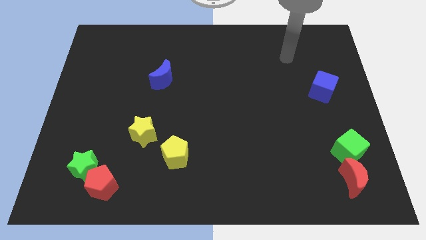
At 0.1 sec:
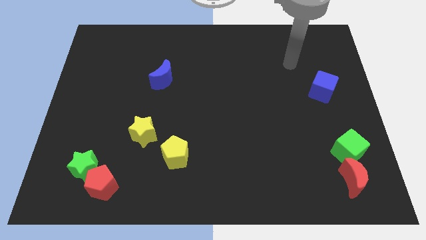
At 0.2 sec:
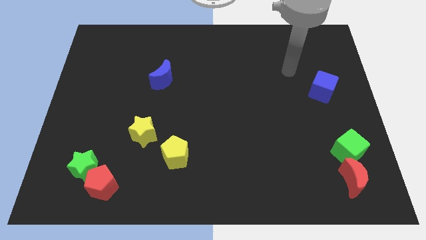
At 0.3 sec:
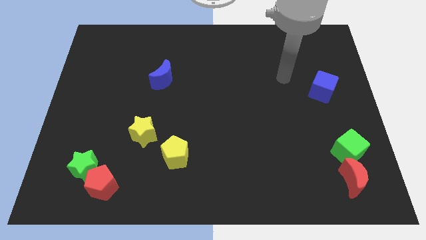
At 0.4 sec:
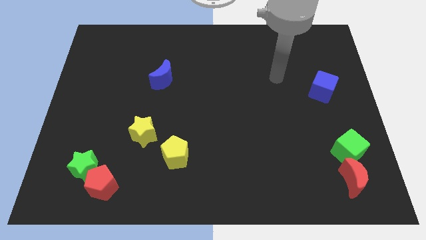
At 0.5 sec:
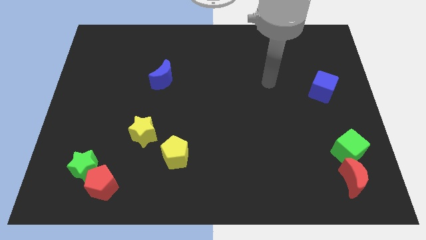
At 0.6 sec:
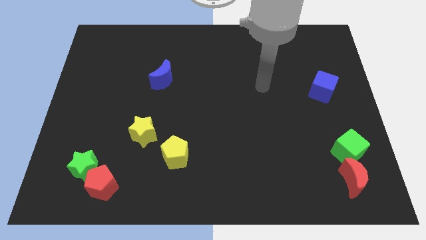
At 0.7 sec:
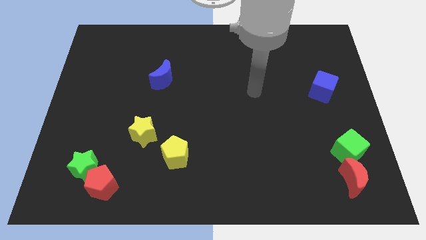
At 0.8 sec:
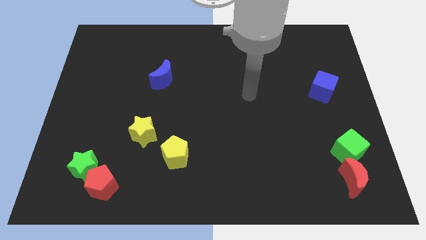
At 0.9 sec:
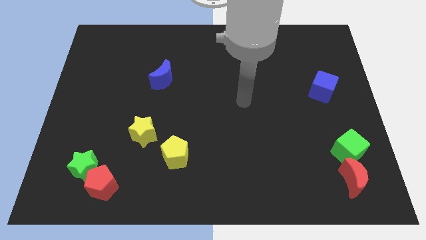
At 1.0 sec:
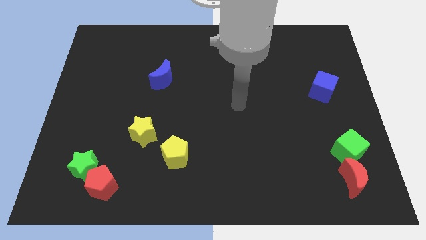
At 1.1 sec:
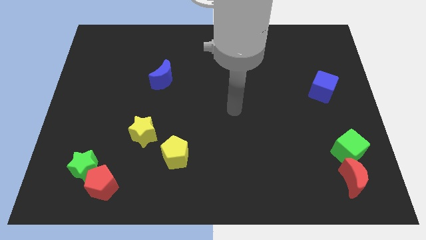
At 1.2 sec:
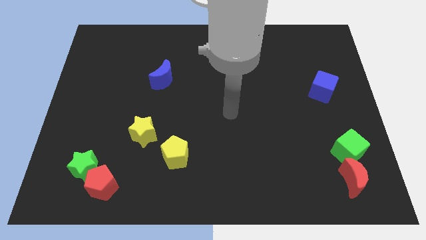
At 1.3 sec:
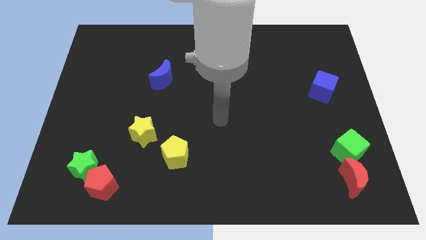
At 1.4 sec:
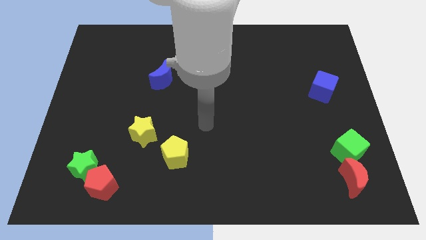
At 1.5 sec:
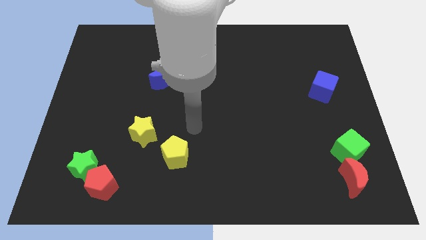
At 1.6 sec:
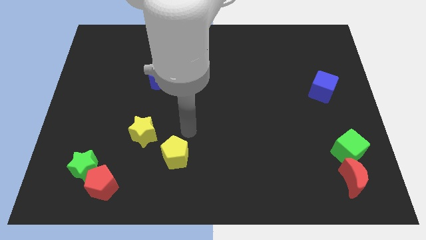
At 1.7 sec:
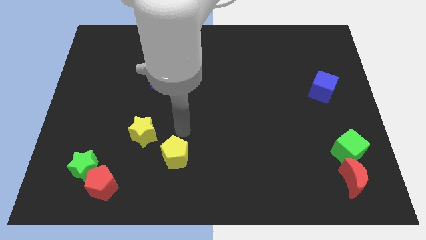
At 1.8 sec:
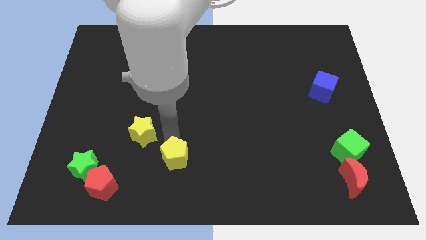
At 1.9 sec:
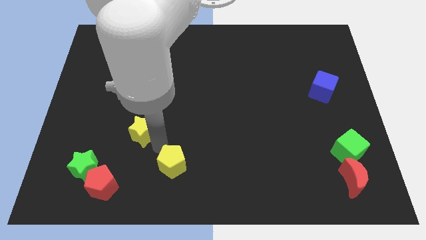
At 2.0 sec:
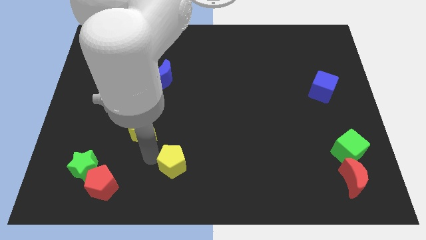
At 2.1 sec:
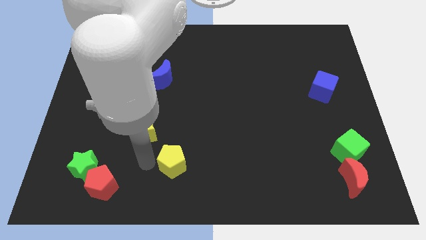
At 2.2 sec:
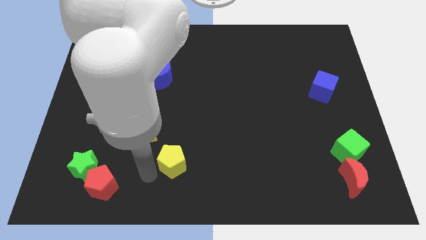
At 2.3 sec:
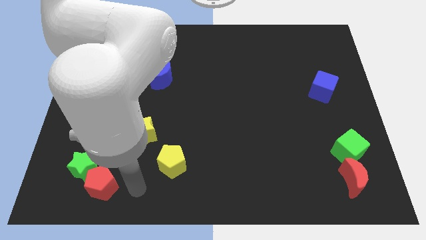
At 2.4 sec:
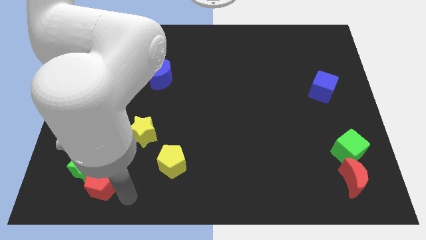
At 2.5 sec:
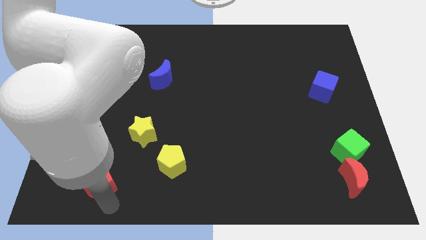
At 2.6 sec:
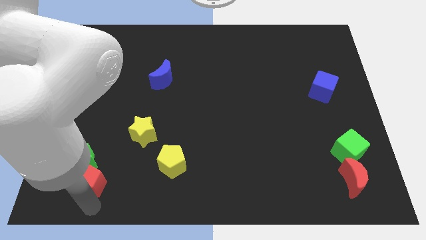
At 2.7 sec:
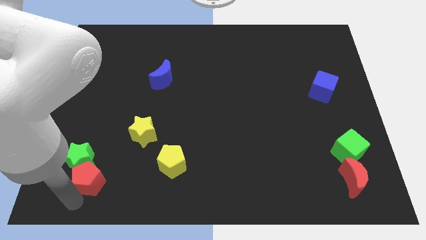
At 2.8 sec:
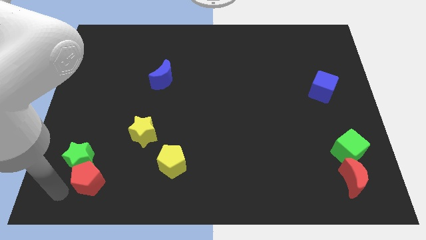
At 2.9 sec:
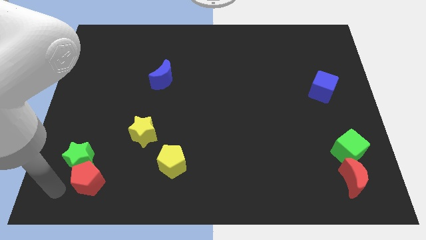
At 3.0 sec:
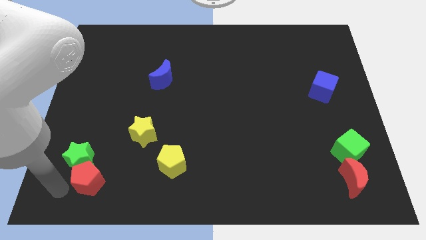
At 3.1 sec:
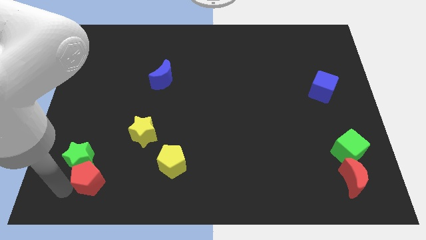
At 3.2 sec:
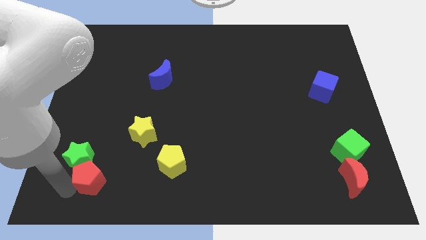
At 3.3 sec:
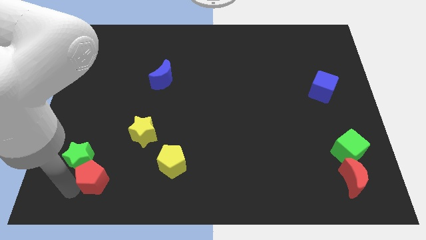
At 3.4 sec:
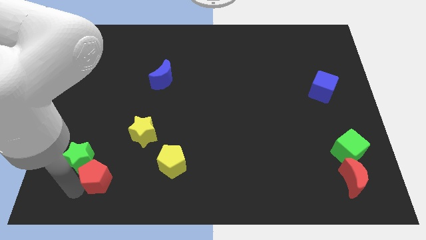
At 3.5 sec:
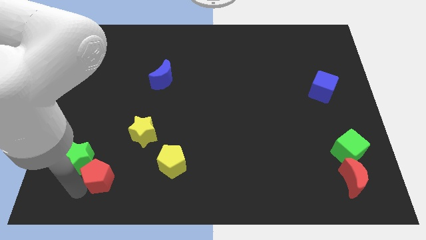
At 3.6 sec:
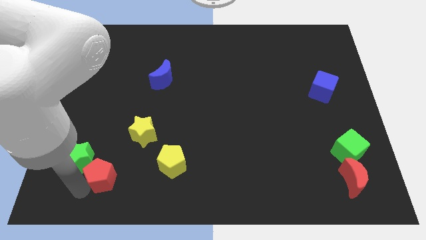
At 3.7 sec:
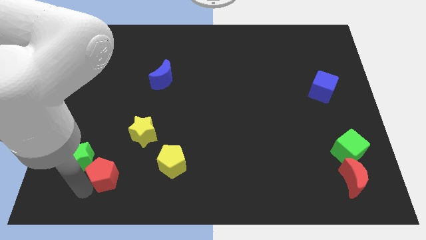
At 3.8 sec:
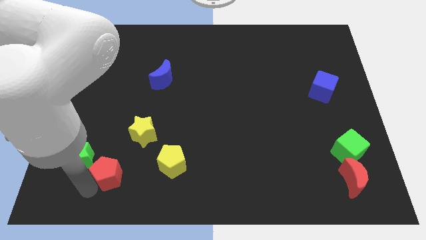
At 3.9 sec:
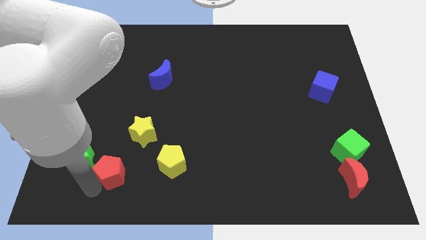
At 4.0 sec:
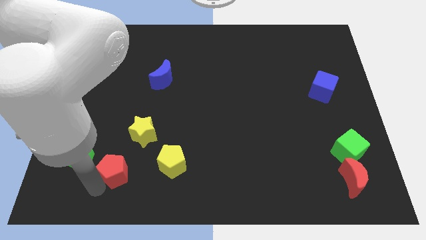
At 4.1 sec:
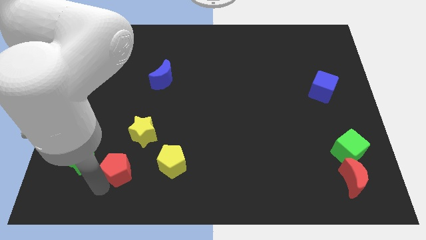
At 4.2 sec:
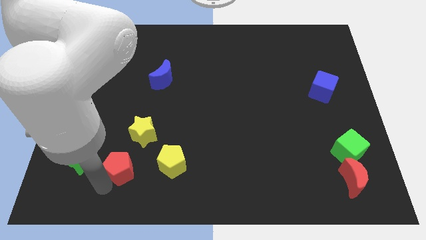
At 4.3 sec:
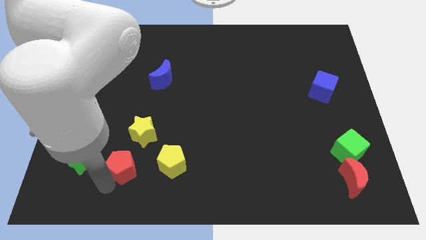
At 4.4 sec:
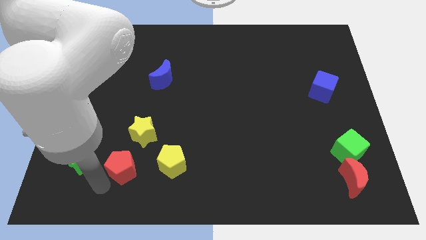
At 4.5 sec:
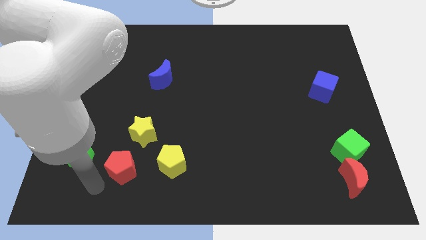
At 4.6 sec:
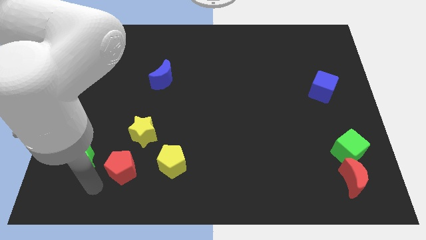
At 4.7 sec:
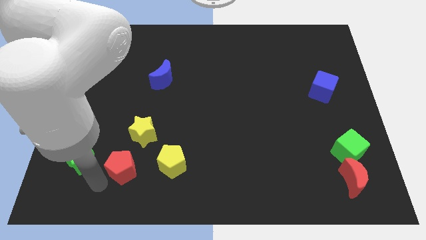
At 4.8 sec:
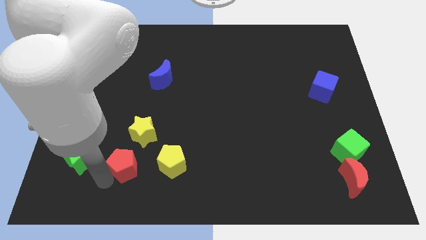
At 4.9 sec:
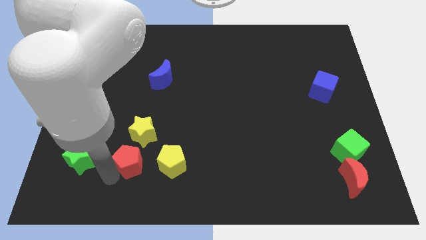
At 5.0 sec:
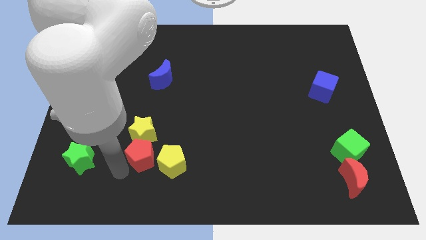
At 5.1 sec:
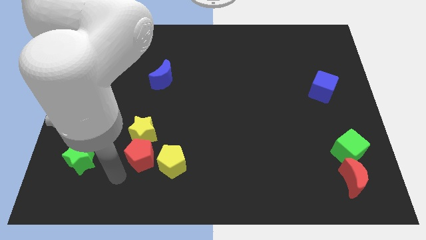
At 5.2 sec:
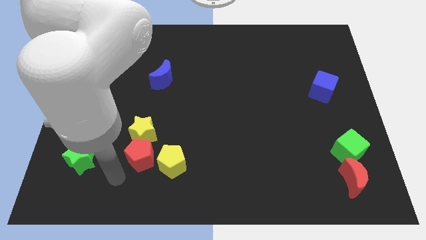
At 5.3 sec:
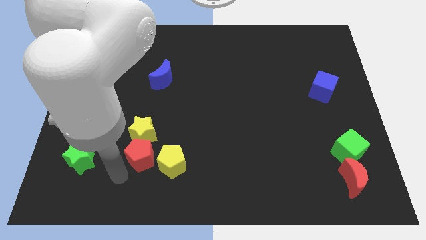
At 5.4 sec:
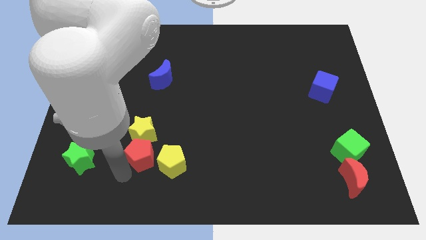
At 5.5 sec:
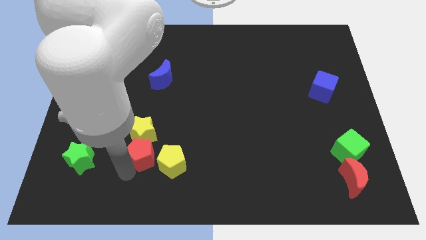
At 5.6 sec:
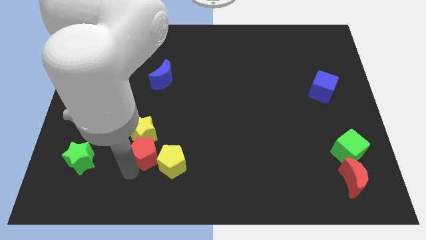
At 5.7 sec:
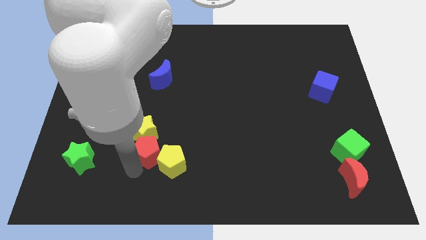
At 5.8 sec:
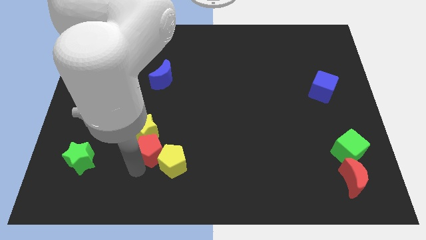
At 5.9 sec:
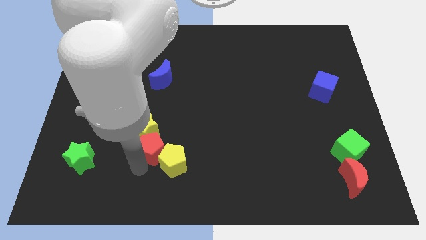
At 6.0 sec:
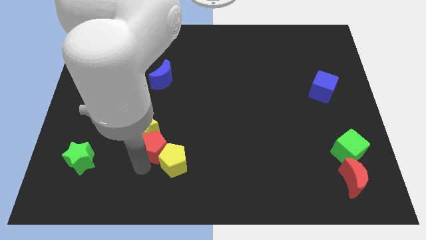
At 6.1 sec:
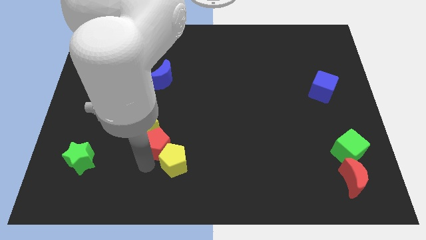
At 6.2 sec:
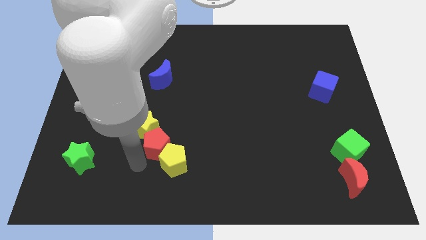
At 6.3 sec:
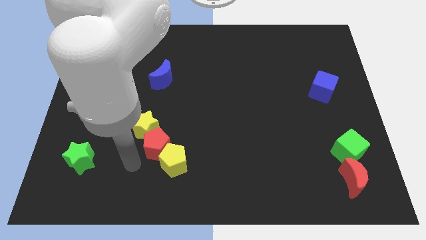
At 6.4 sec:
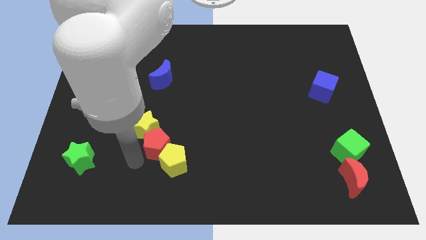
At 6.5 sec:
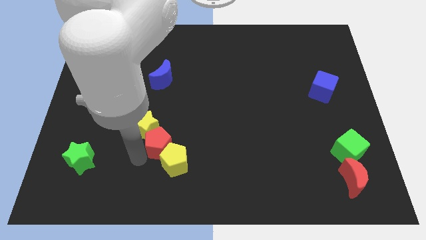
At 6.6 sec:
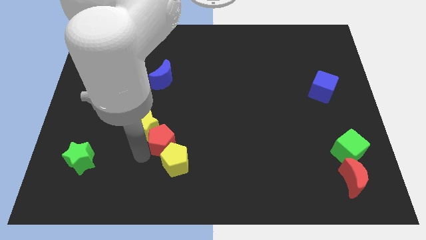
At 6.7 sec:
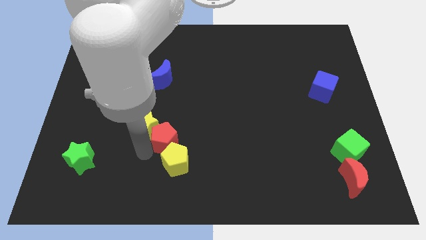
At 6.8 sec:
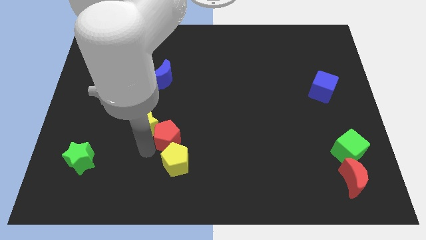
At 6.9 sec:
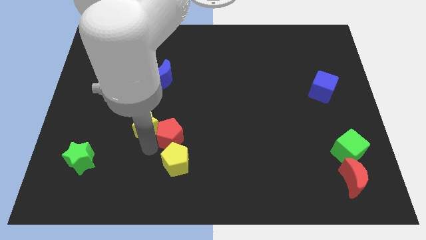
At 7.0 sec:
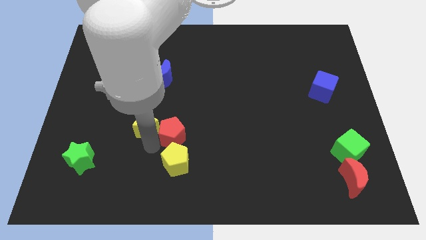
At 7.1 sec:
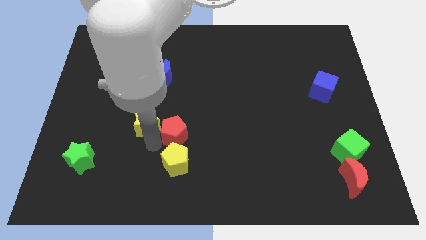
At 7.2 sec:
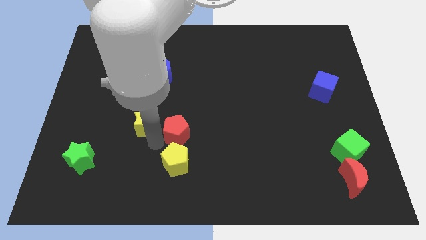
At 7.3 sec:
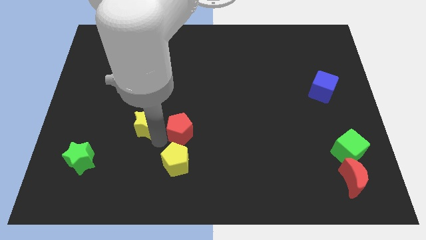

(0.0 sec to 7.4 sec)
push the red pentagon upwards and then to the right

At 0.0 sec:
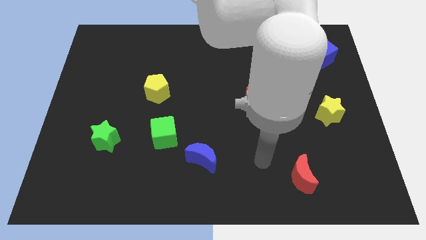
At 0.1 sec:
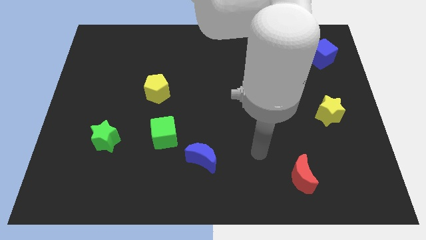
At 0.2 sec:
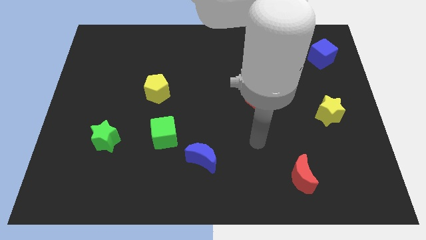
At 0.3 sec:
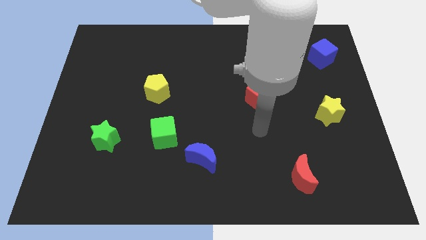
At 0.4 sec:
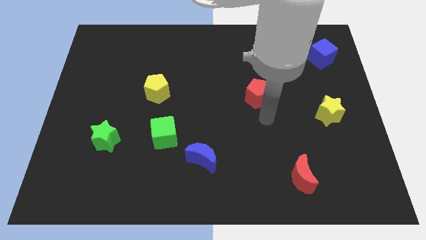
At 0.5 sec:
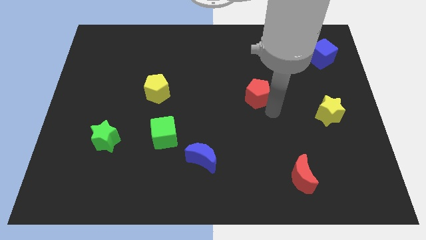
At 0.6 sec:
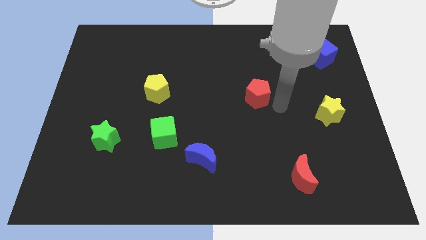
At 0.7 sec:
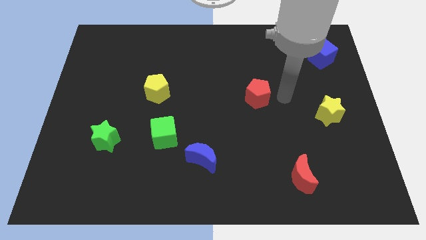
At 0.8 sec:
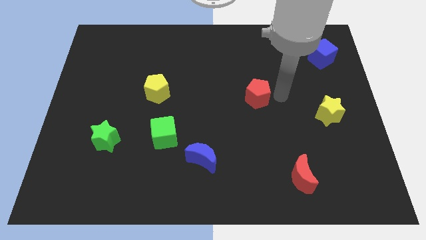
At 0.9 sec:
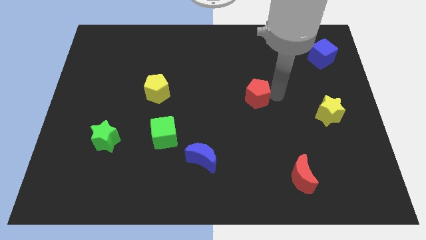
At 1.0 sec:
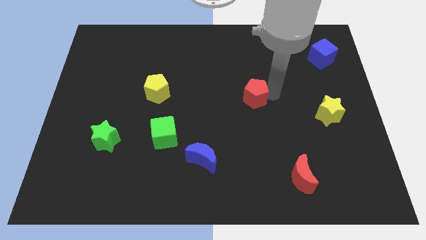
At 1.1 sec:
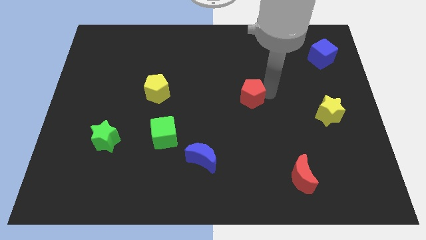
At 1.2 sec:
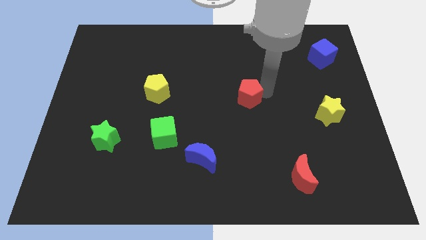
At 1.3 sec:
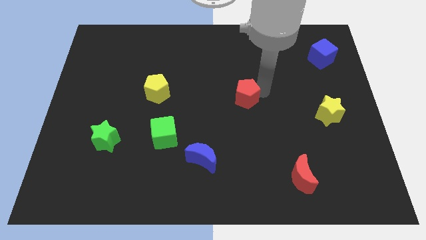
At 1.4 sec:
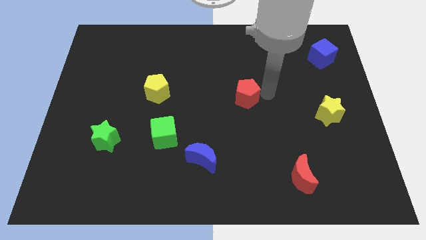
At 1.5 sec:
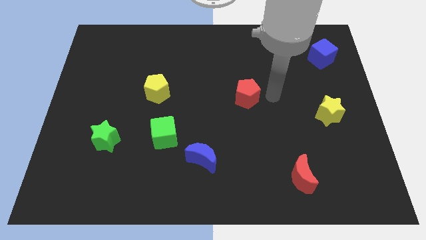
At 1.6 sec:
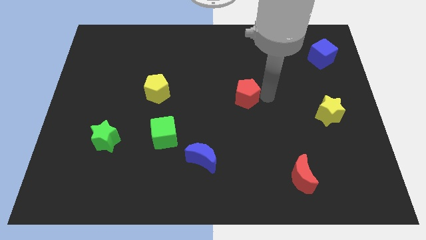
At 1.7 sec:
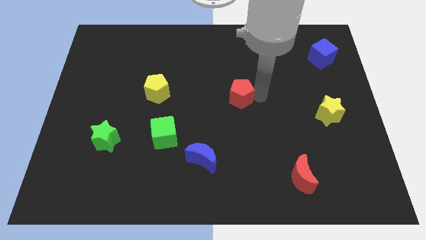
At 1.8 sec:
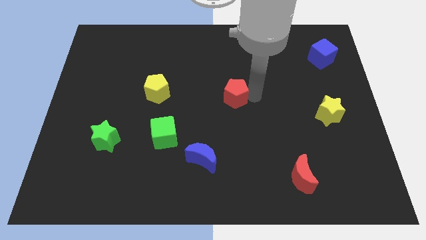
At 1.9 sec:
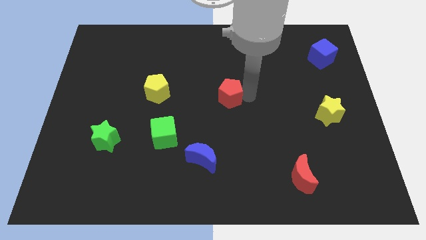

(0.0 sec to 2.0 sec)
slightly move the red pentagon to the left
